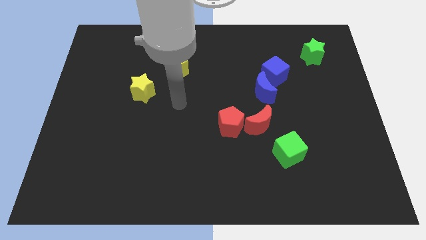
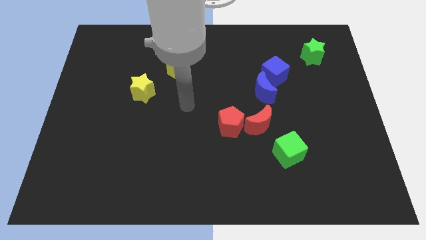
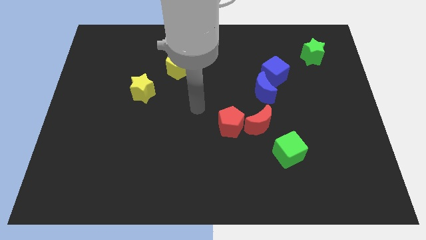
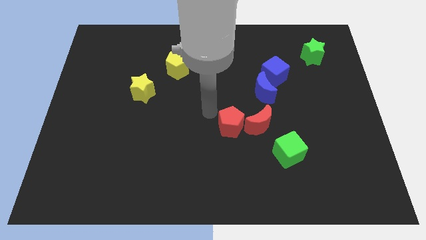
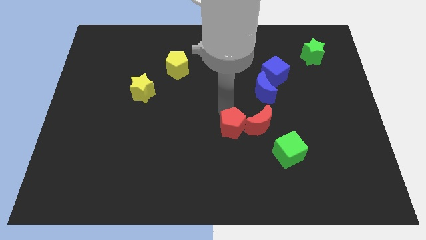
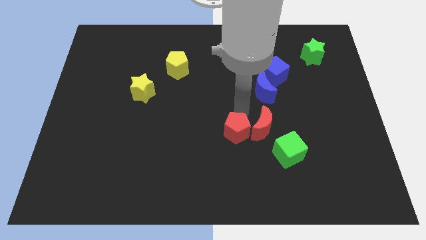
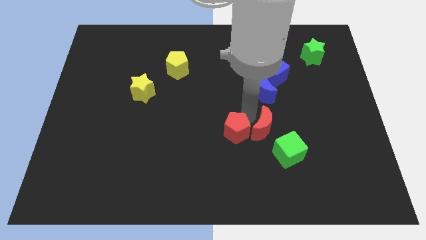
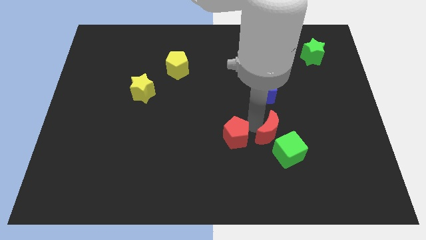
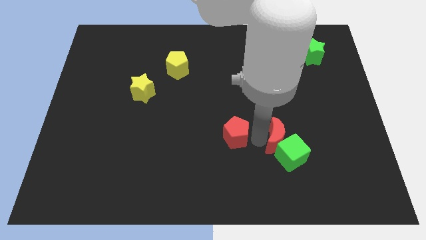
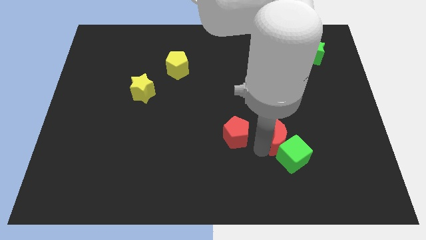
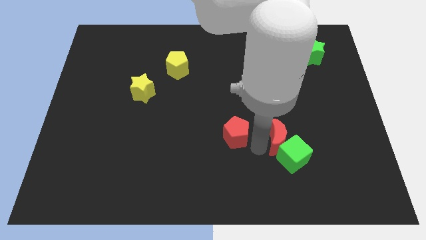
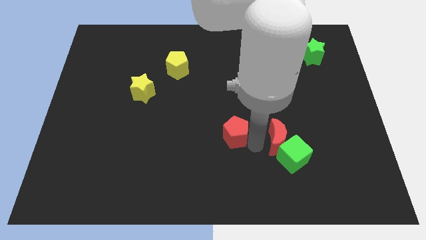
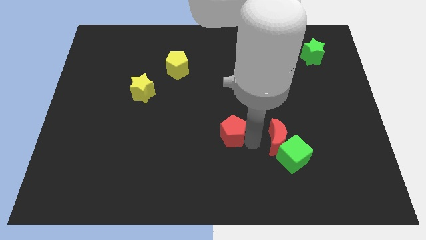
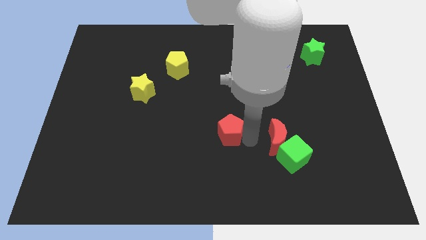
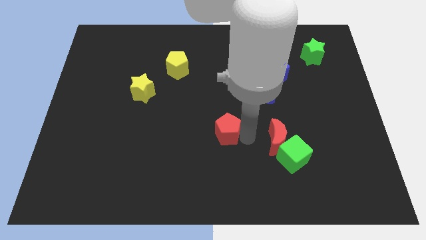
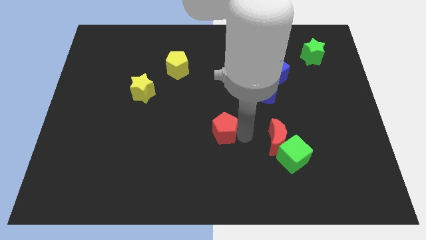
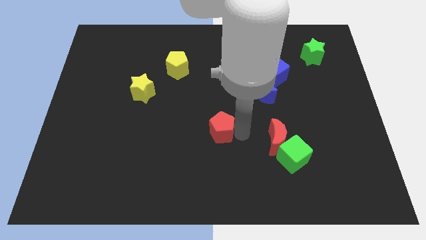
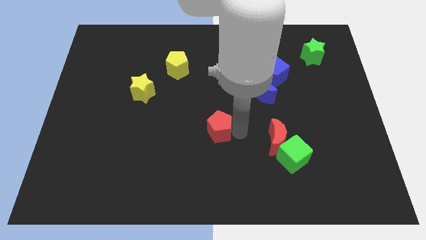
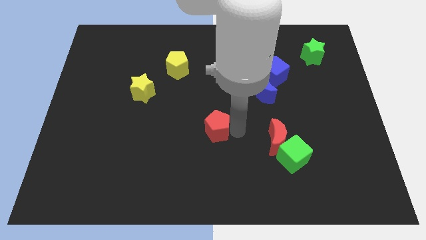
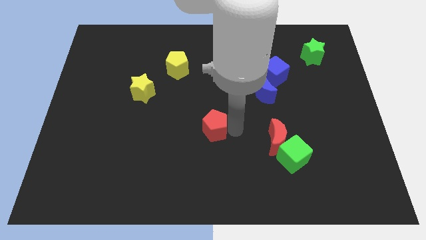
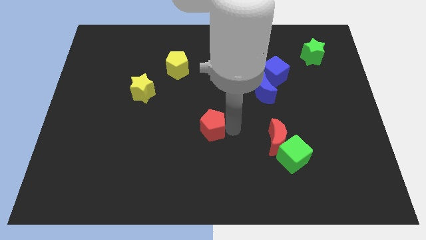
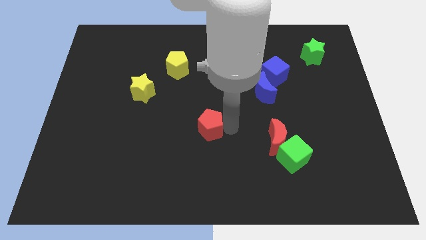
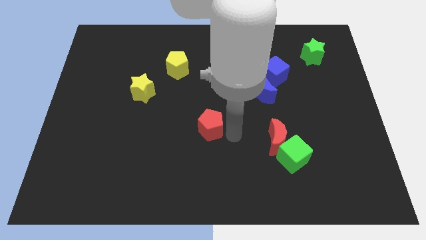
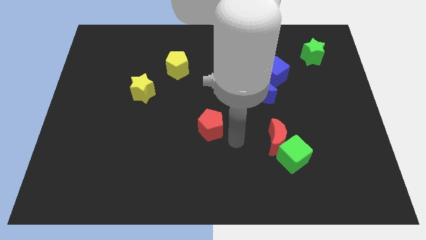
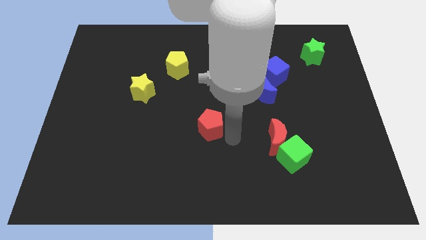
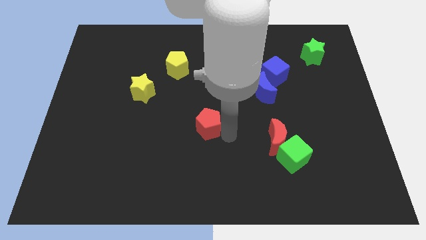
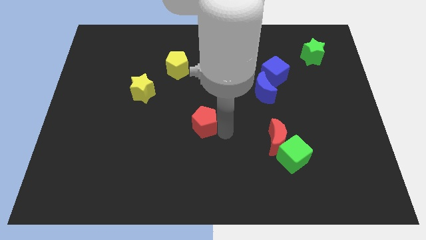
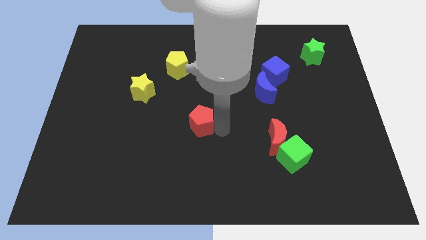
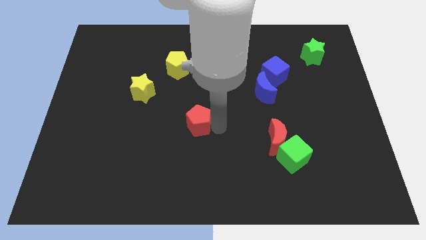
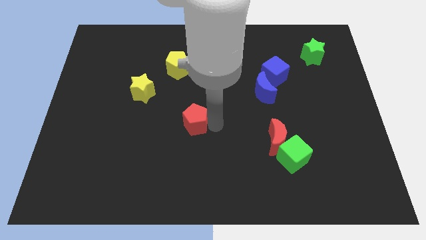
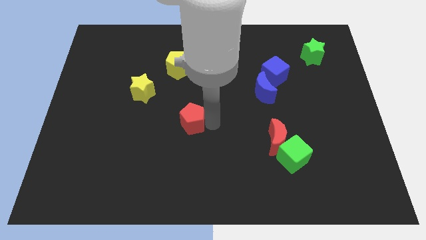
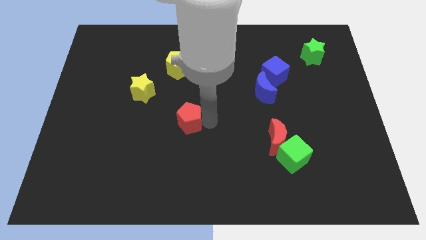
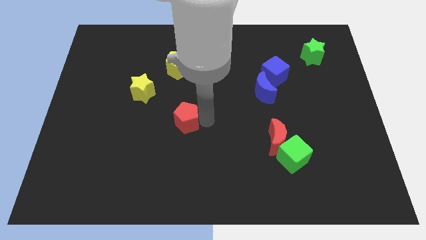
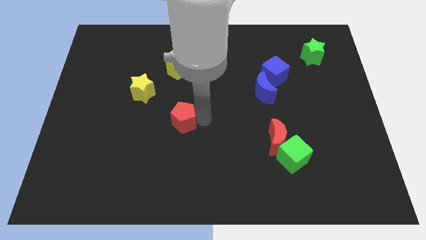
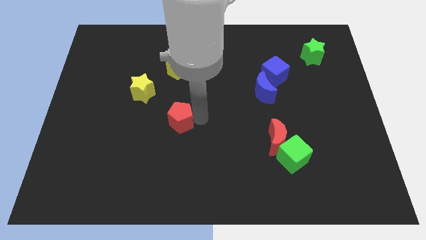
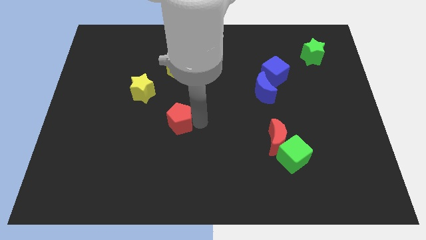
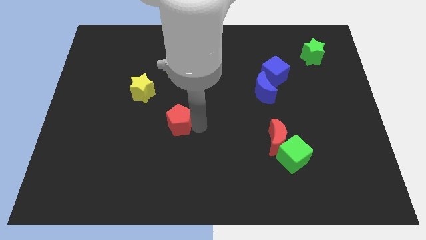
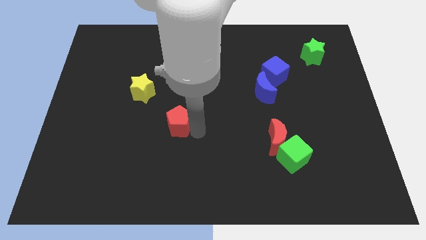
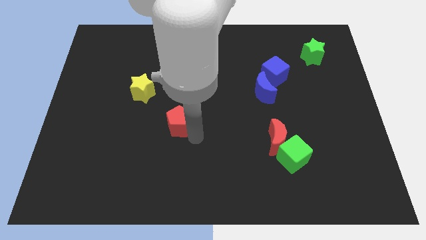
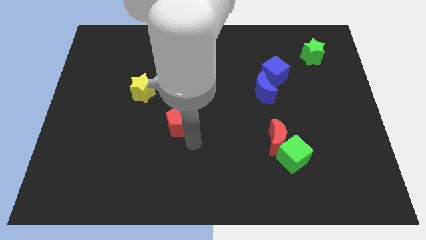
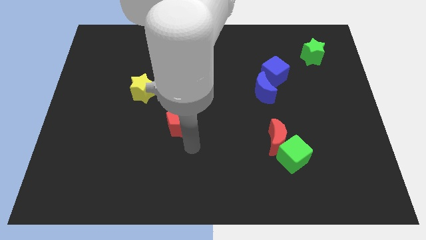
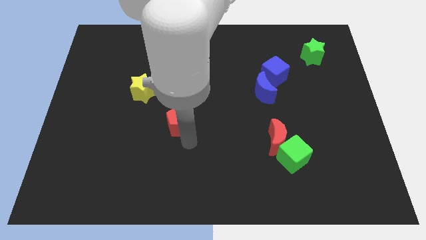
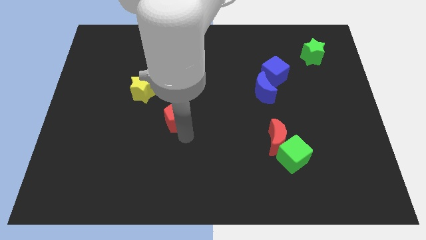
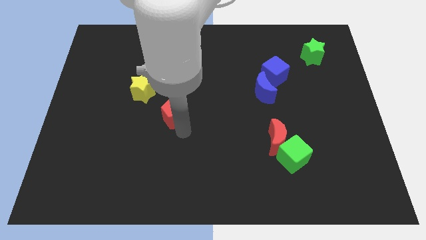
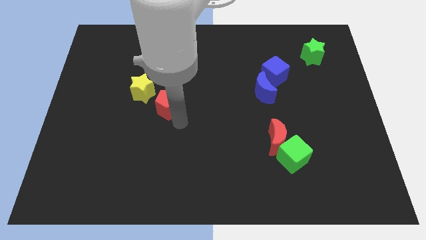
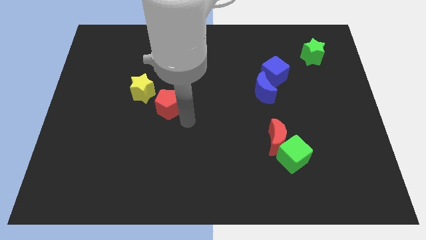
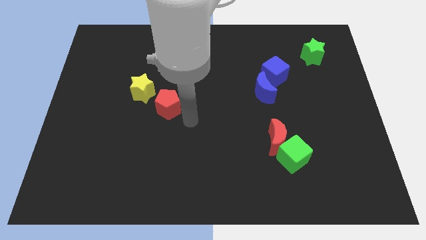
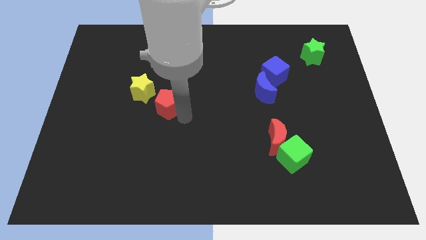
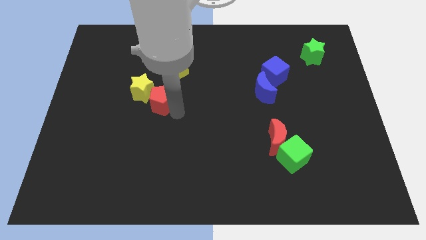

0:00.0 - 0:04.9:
push the red pentagon next to the yellow star

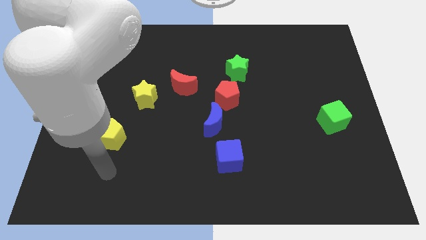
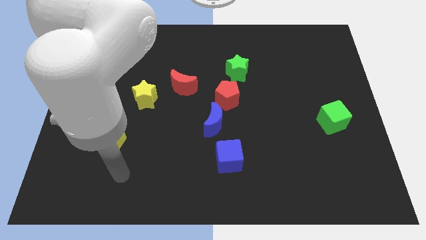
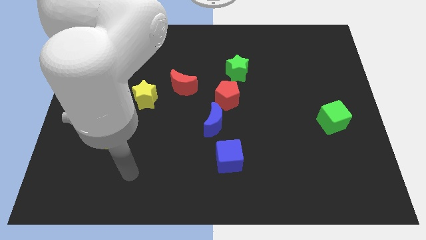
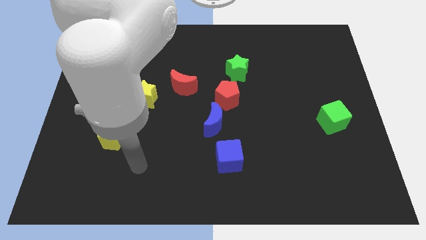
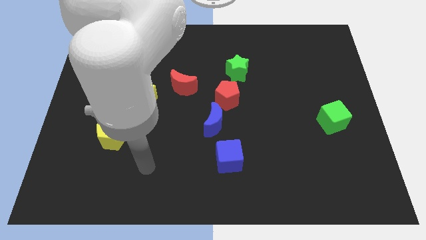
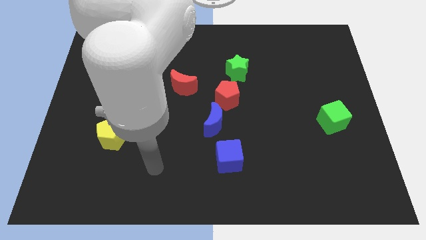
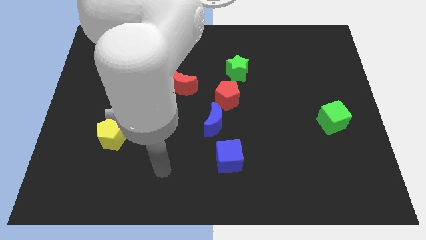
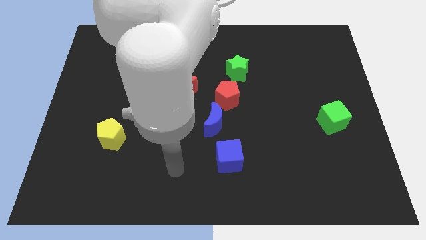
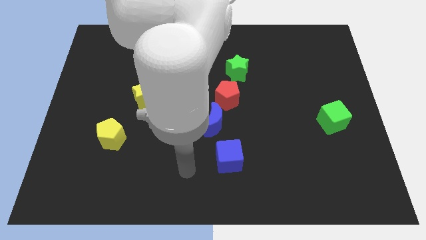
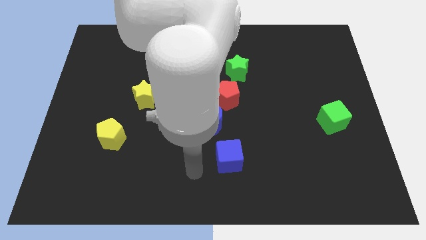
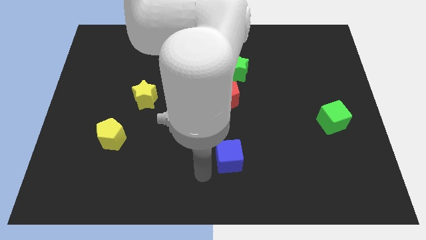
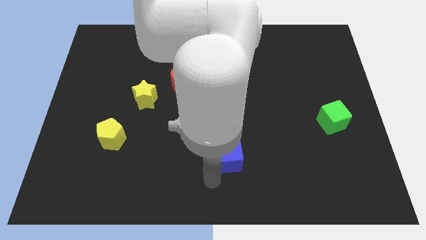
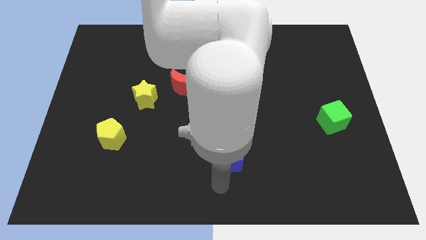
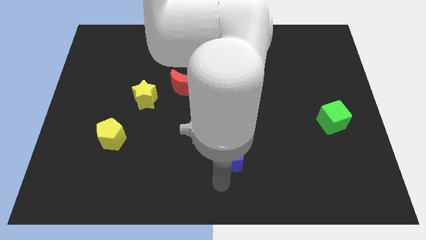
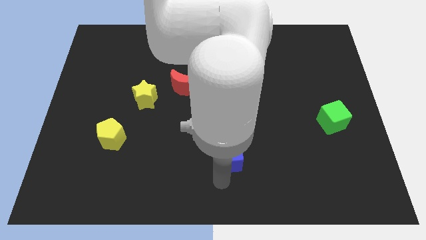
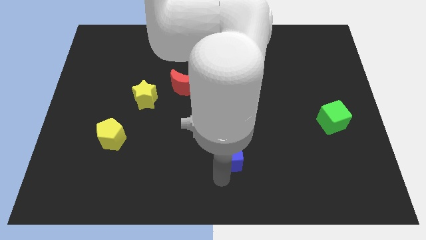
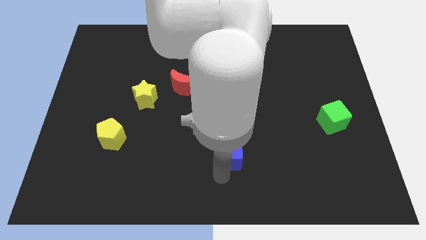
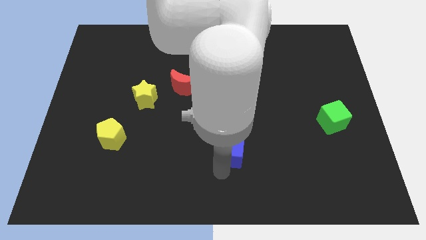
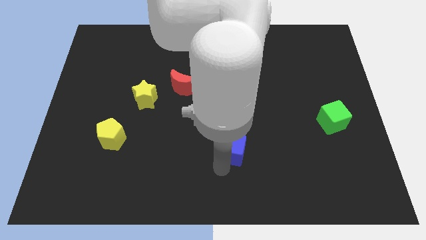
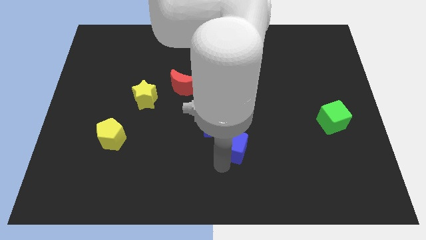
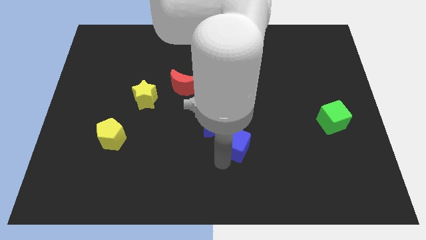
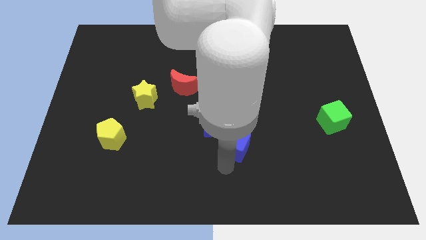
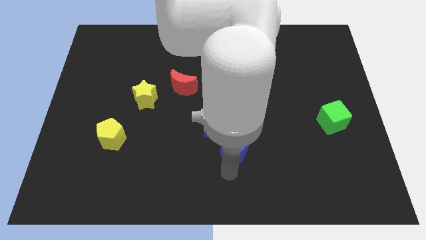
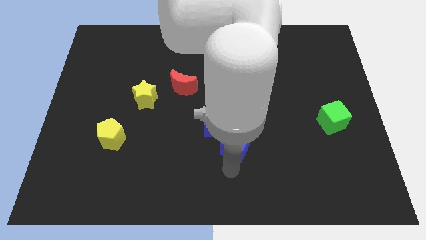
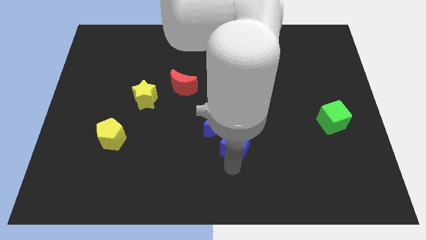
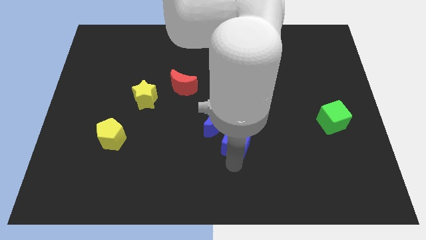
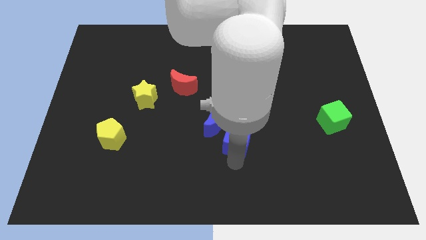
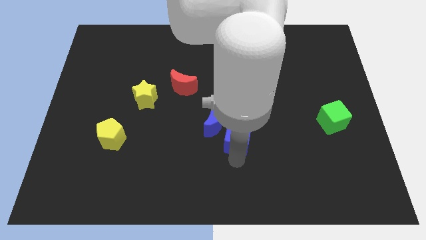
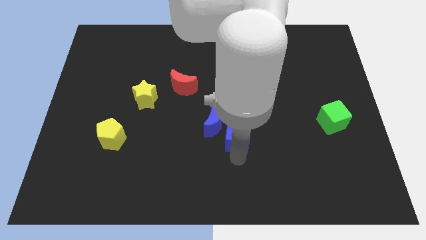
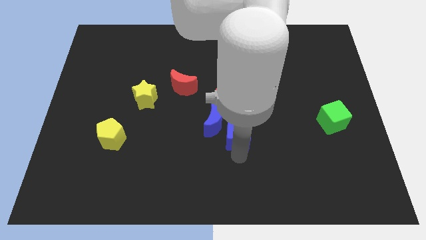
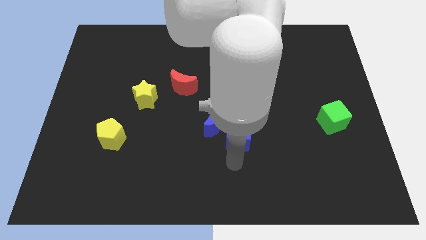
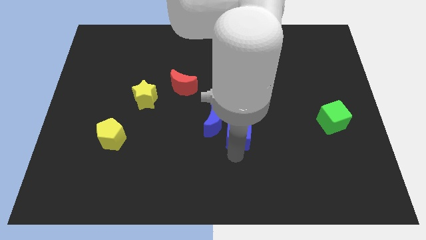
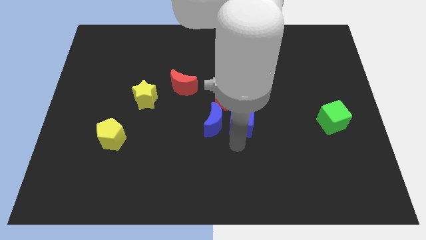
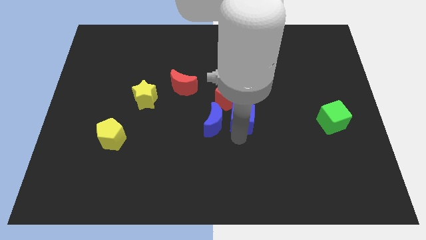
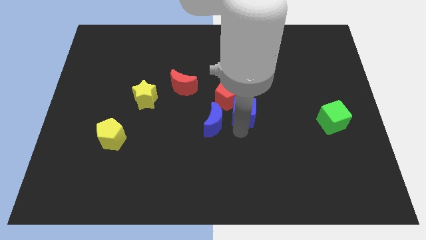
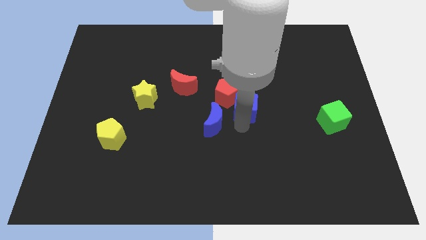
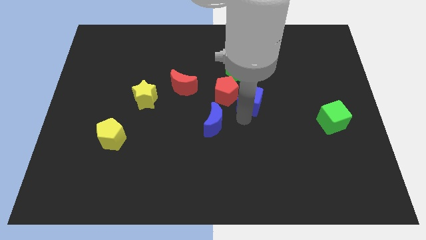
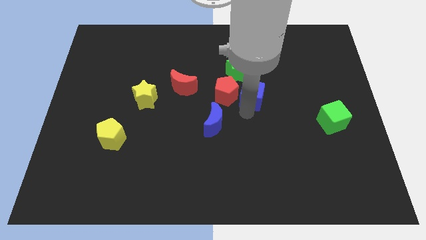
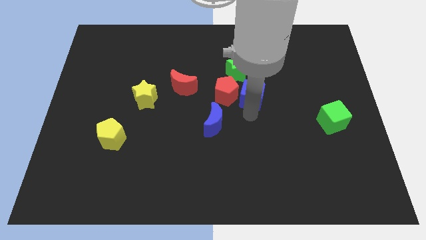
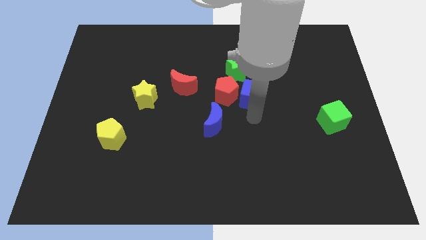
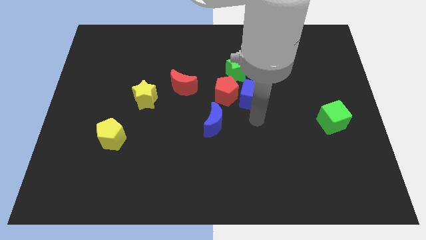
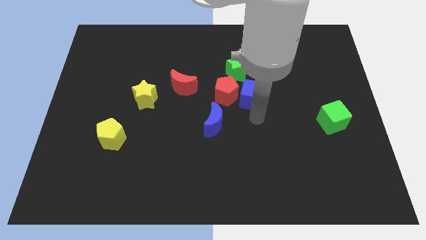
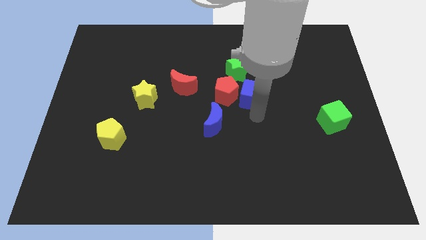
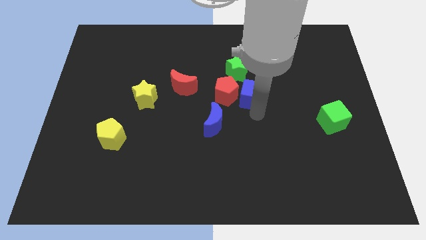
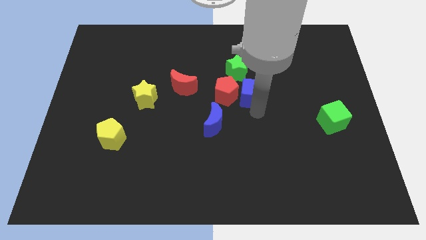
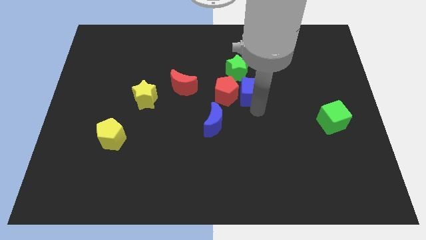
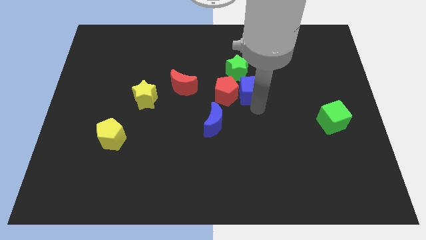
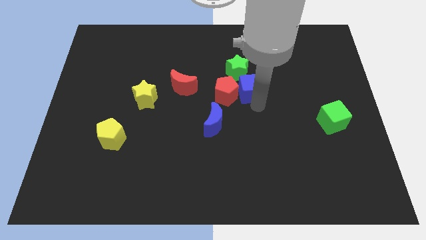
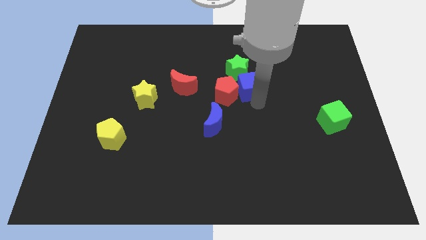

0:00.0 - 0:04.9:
put the blue cube to the green star
